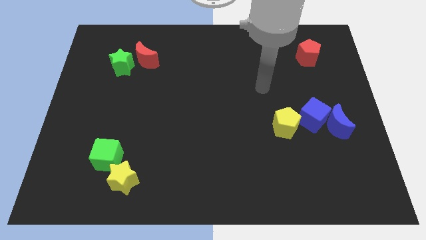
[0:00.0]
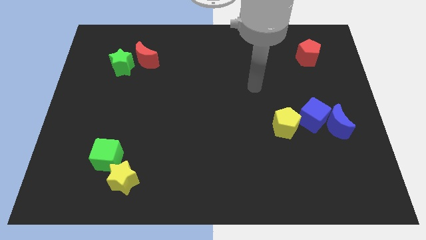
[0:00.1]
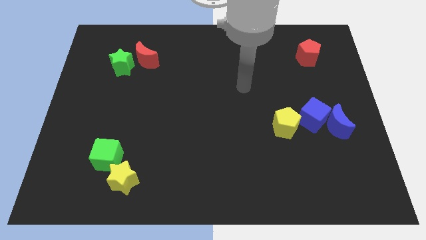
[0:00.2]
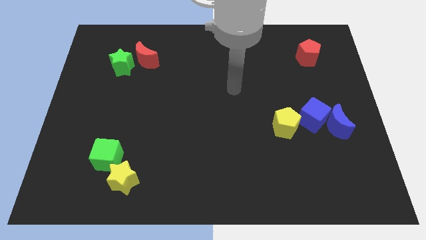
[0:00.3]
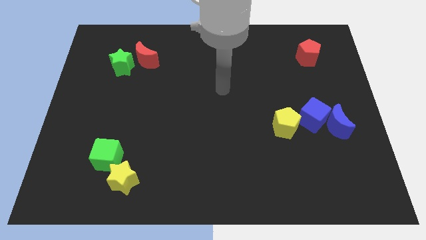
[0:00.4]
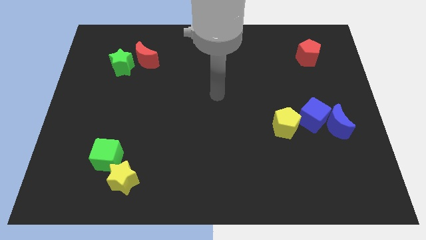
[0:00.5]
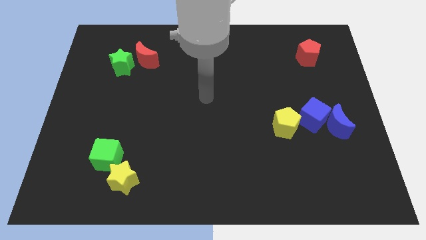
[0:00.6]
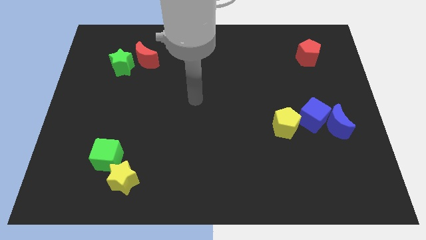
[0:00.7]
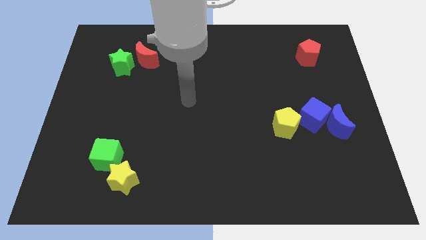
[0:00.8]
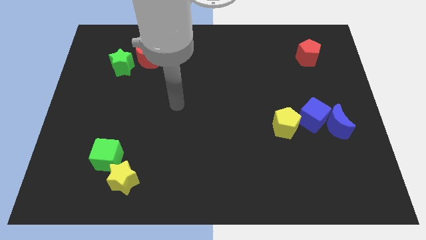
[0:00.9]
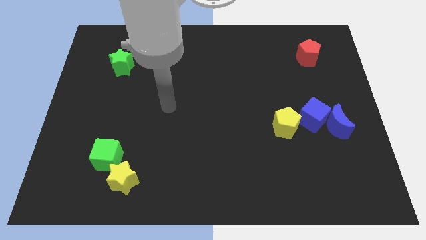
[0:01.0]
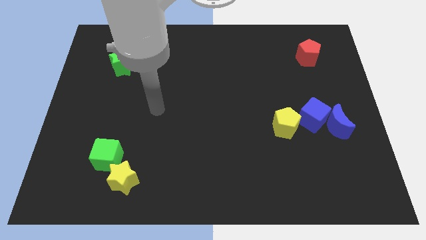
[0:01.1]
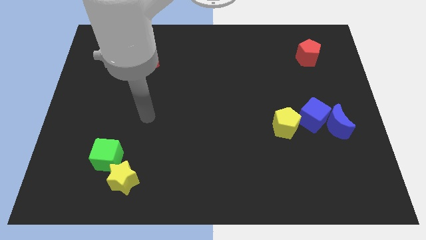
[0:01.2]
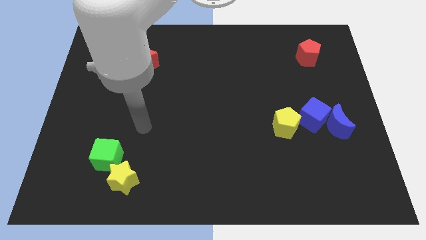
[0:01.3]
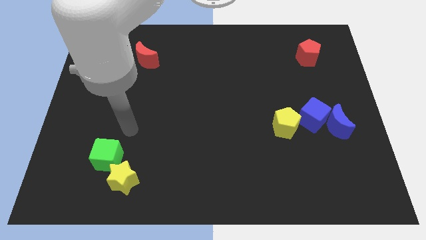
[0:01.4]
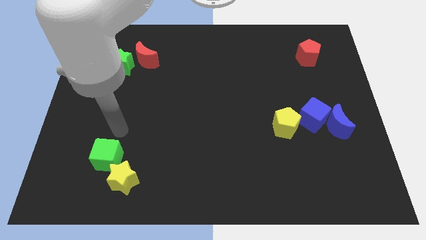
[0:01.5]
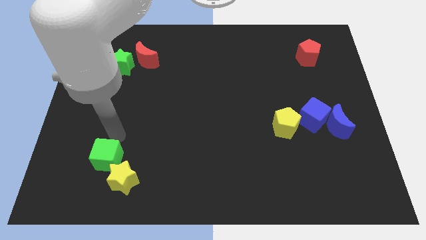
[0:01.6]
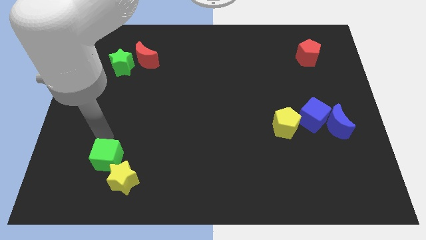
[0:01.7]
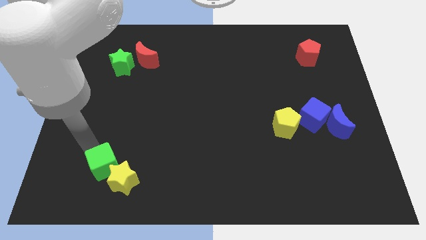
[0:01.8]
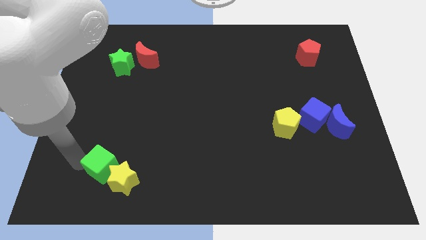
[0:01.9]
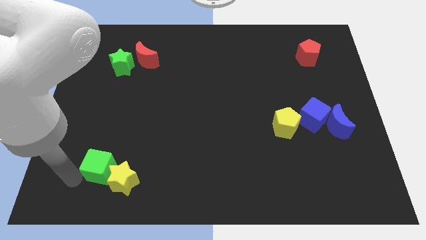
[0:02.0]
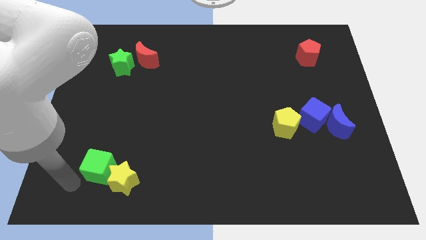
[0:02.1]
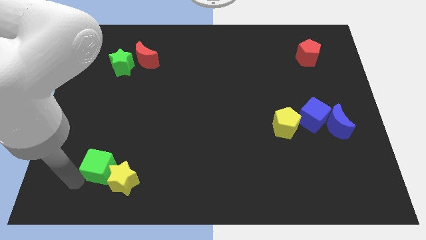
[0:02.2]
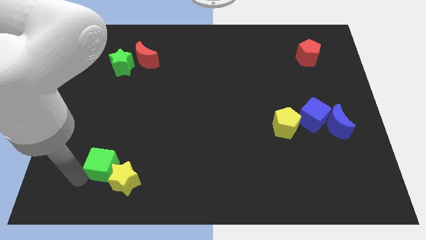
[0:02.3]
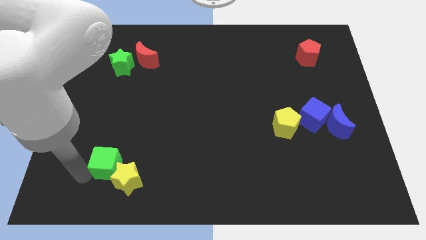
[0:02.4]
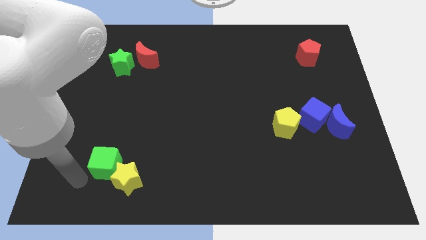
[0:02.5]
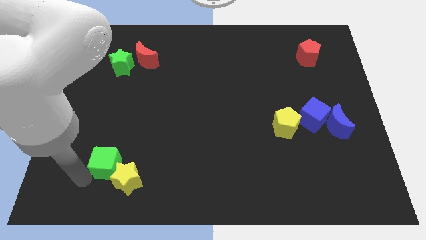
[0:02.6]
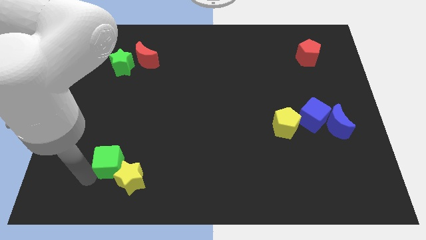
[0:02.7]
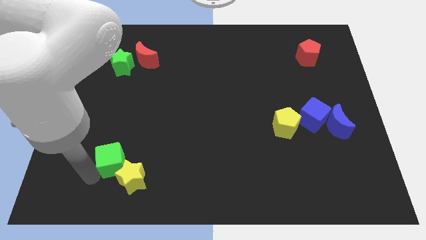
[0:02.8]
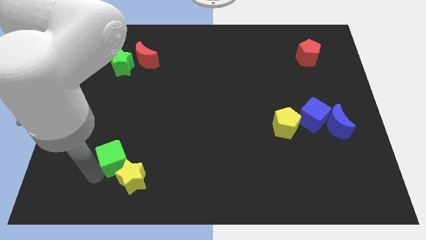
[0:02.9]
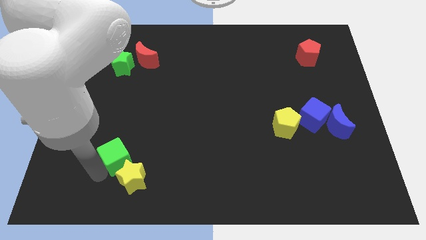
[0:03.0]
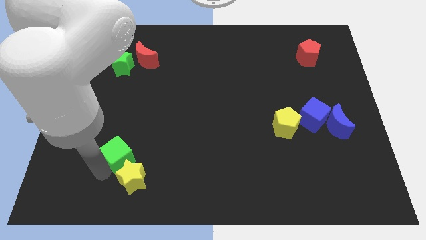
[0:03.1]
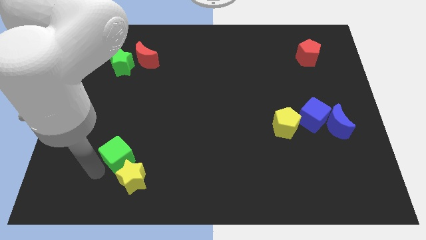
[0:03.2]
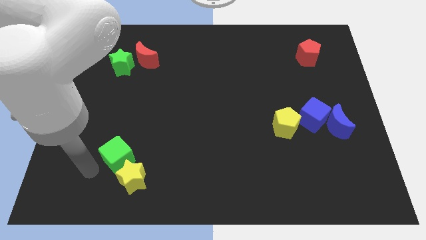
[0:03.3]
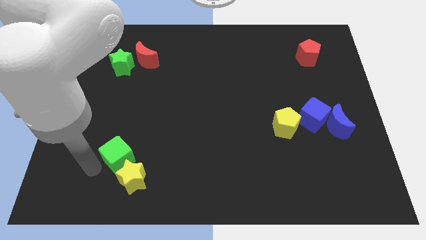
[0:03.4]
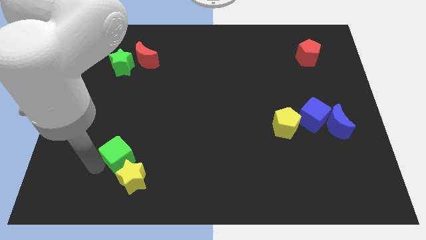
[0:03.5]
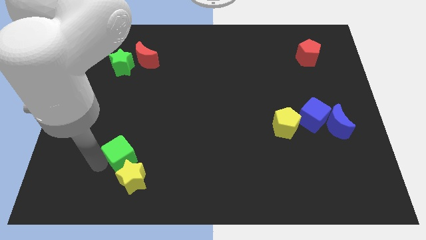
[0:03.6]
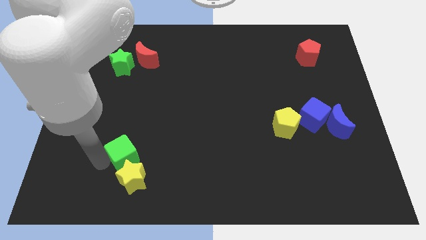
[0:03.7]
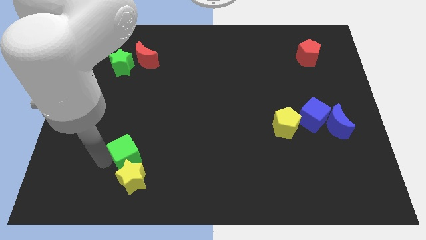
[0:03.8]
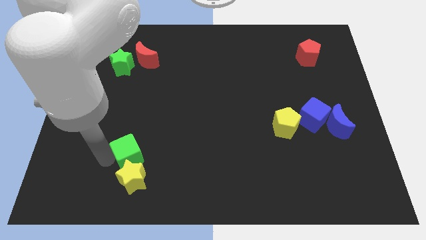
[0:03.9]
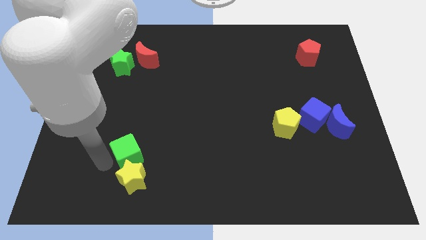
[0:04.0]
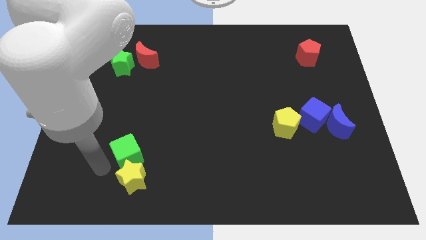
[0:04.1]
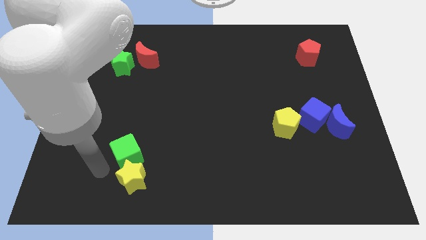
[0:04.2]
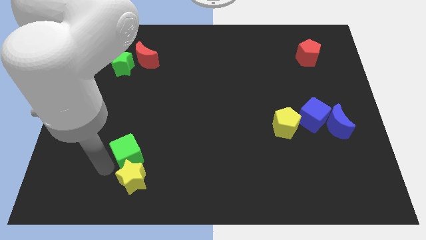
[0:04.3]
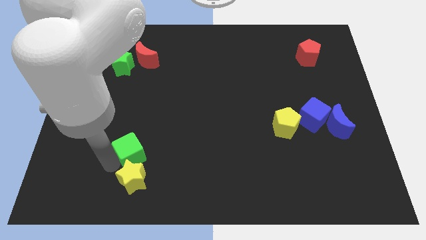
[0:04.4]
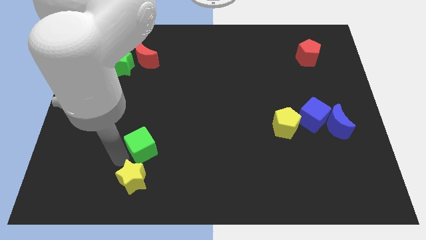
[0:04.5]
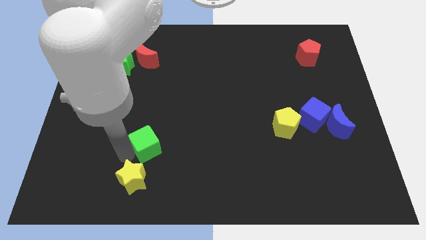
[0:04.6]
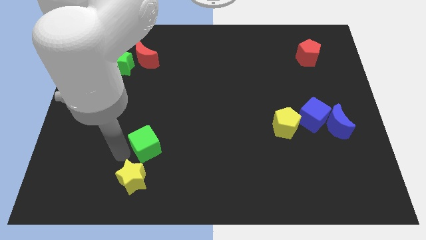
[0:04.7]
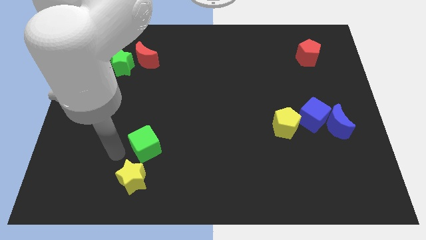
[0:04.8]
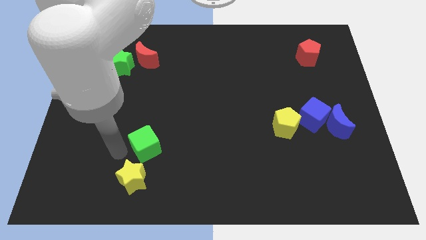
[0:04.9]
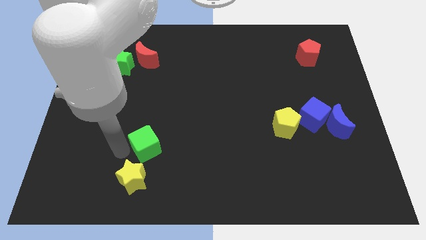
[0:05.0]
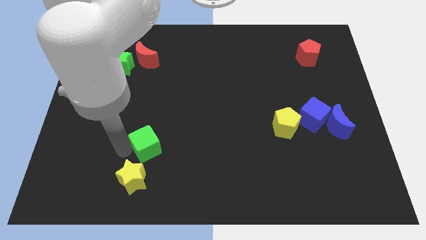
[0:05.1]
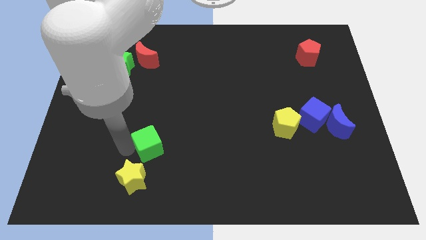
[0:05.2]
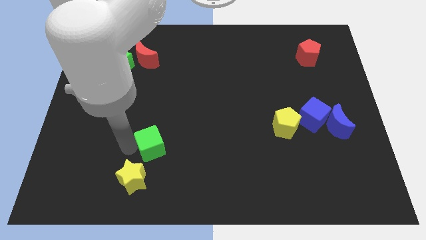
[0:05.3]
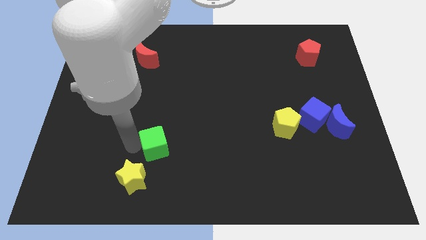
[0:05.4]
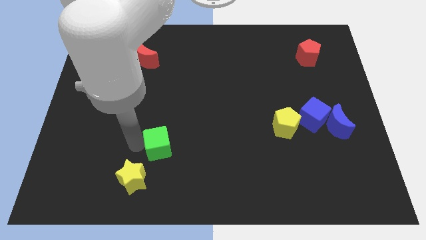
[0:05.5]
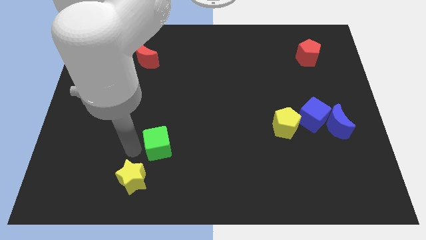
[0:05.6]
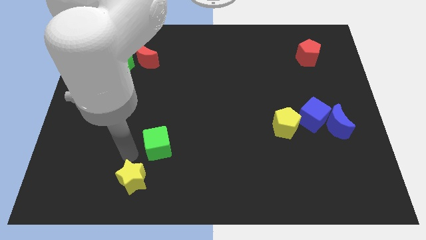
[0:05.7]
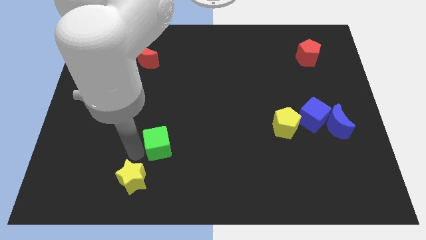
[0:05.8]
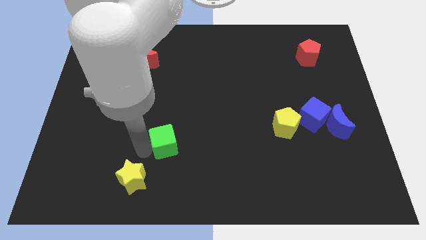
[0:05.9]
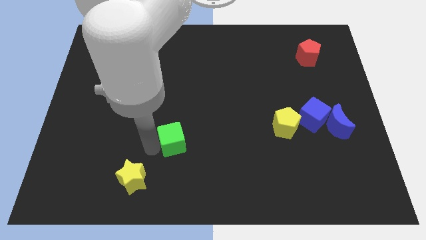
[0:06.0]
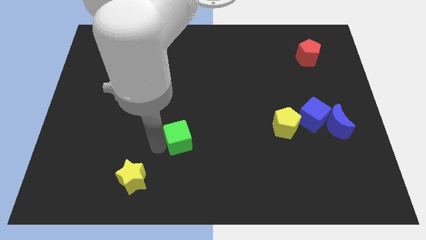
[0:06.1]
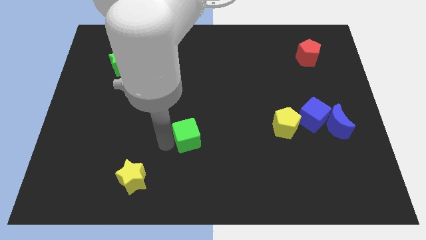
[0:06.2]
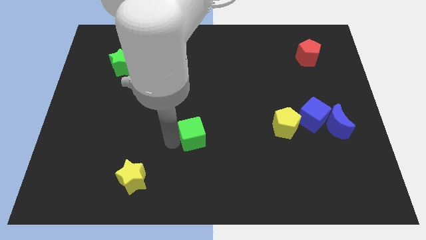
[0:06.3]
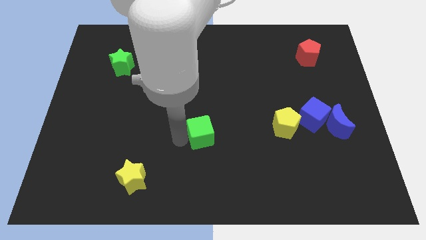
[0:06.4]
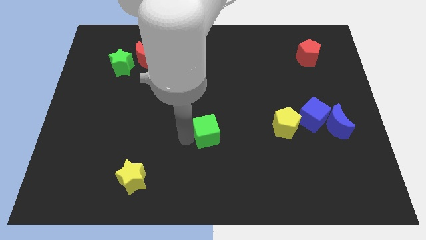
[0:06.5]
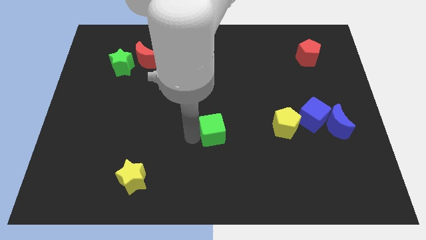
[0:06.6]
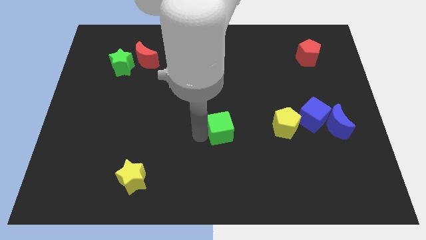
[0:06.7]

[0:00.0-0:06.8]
put the green cube to the left of the yellow pentagon

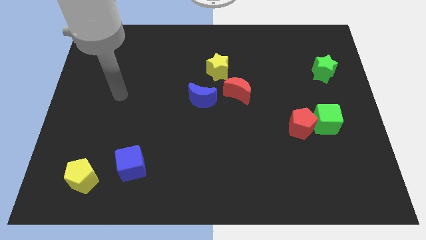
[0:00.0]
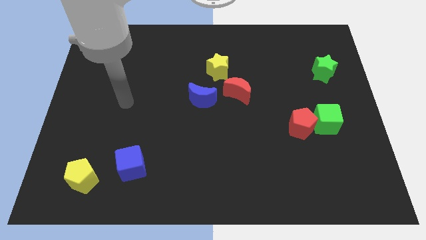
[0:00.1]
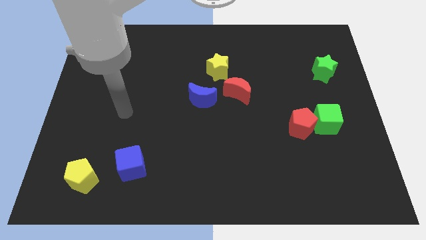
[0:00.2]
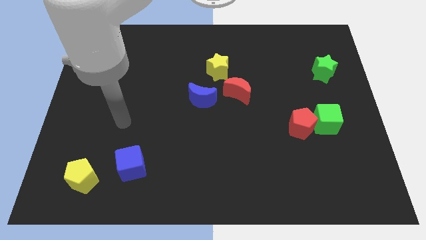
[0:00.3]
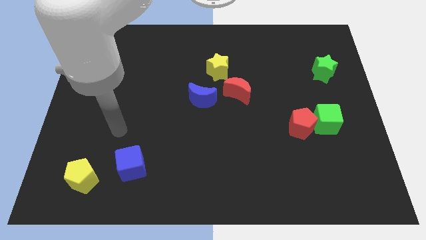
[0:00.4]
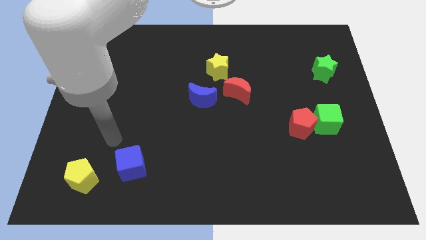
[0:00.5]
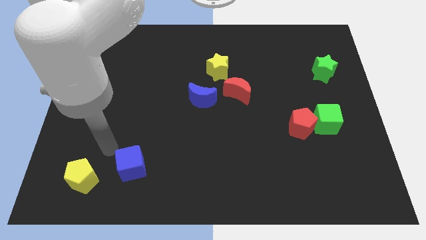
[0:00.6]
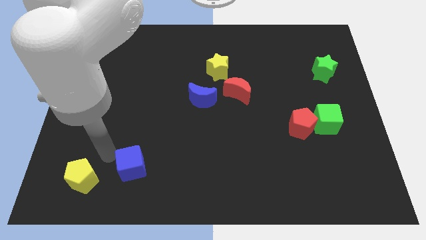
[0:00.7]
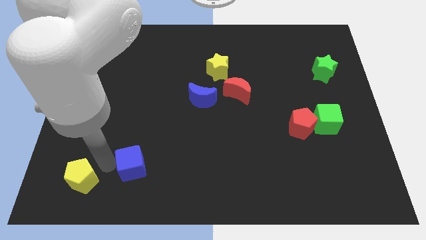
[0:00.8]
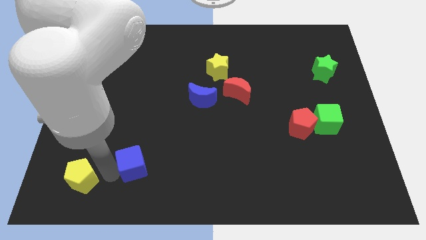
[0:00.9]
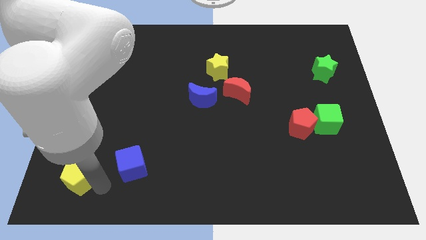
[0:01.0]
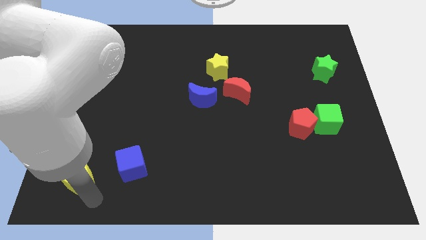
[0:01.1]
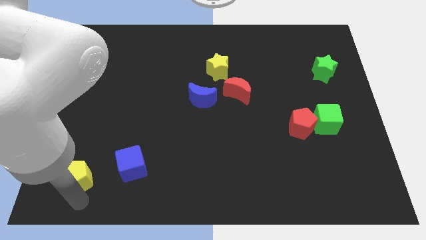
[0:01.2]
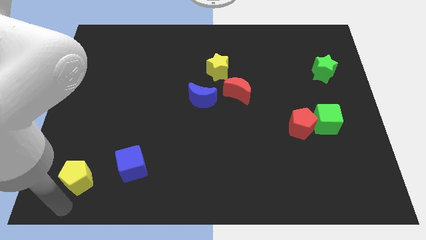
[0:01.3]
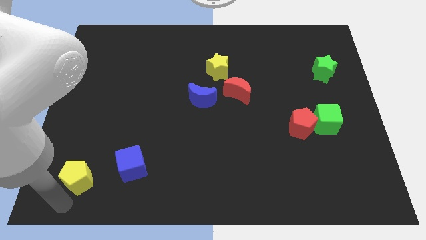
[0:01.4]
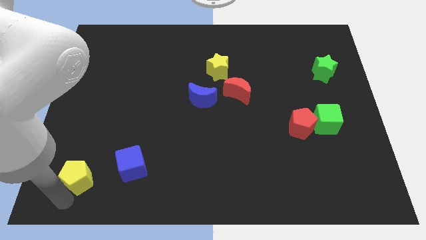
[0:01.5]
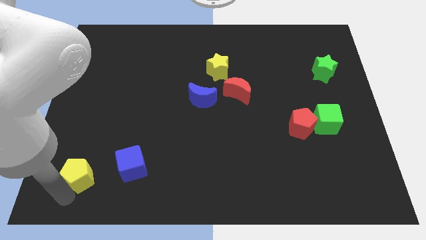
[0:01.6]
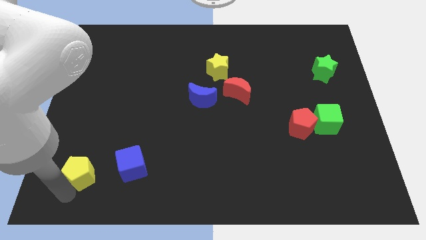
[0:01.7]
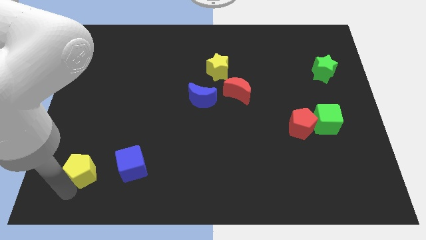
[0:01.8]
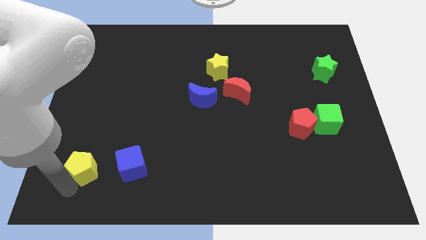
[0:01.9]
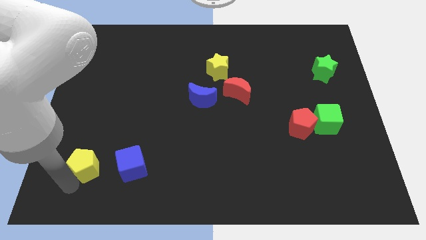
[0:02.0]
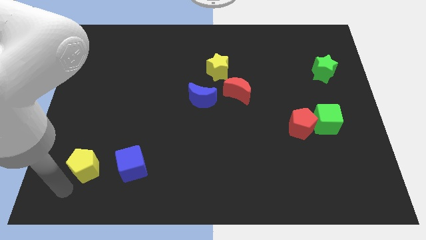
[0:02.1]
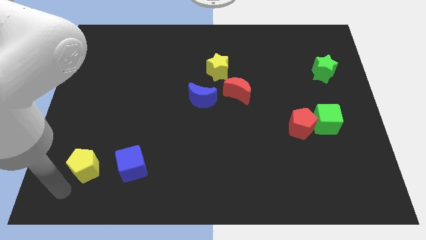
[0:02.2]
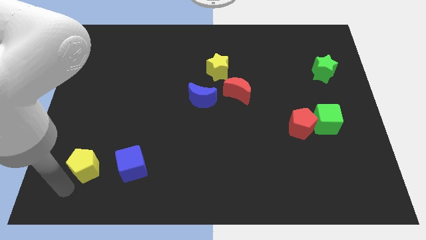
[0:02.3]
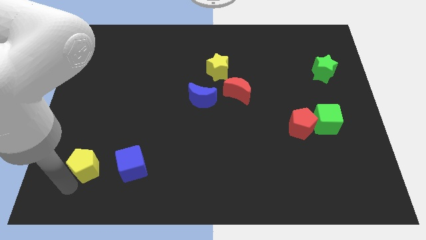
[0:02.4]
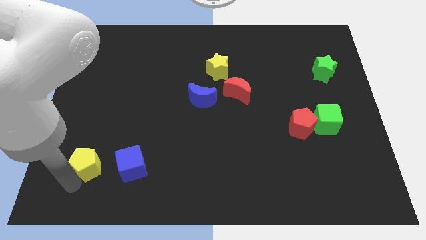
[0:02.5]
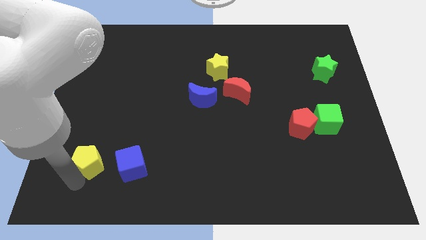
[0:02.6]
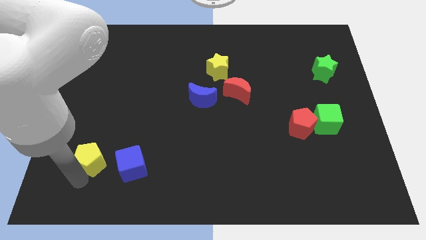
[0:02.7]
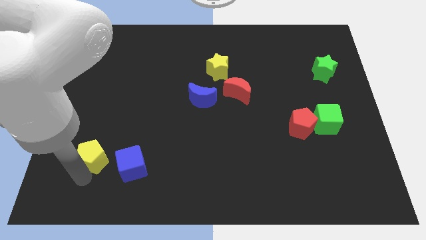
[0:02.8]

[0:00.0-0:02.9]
slide the yellow pentagon diagonally up and to the left of the blue cube
